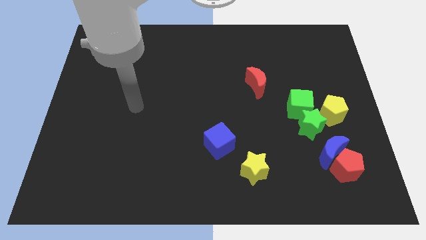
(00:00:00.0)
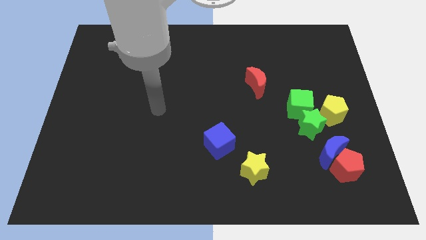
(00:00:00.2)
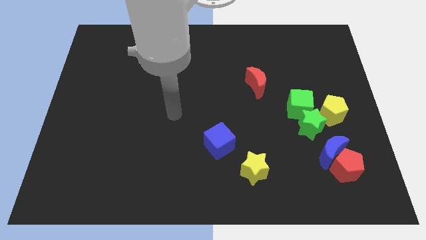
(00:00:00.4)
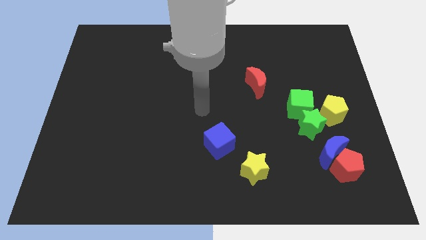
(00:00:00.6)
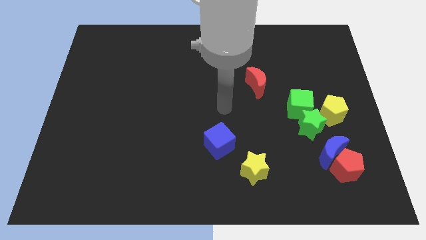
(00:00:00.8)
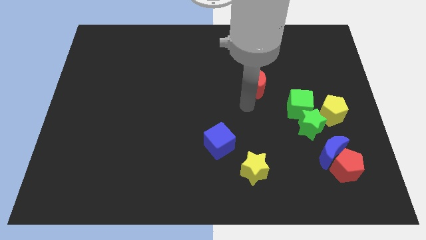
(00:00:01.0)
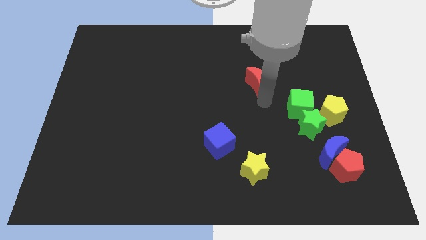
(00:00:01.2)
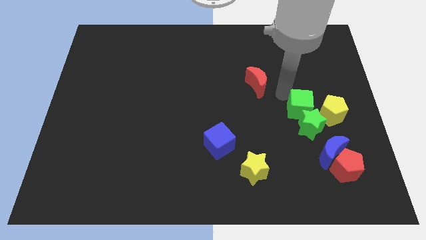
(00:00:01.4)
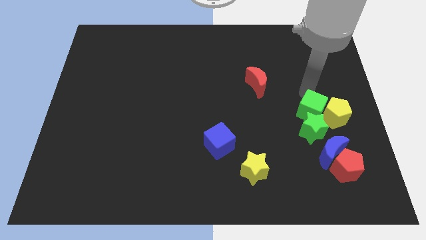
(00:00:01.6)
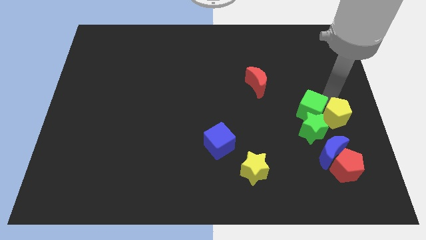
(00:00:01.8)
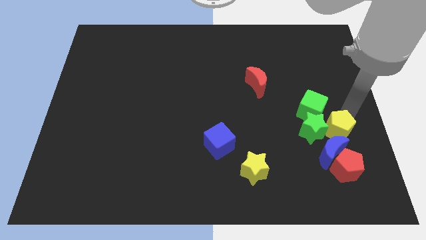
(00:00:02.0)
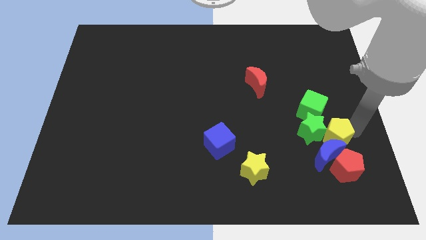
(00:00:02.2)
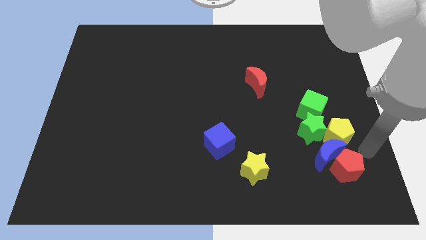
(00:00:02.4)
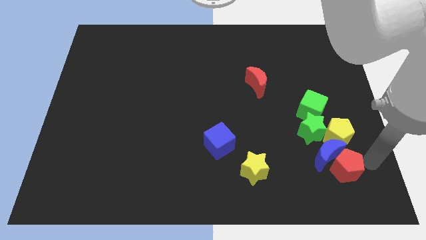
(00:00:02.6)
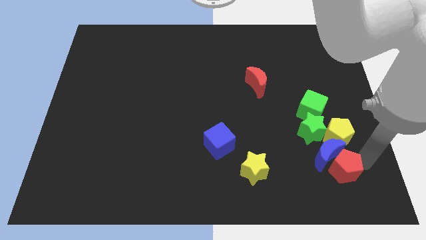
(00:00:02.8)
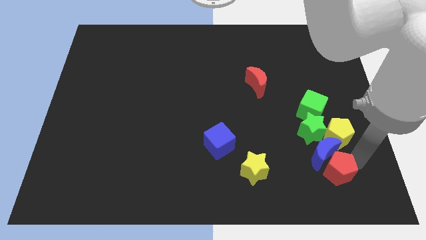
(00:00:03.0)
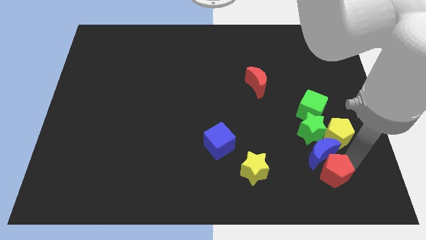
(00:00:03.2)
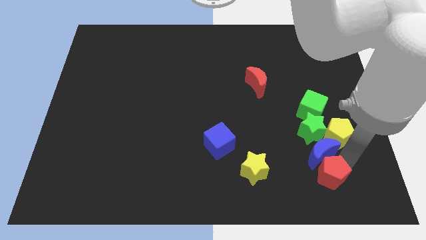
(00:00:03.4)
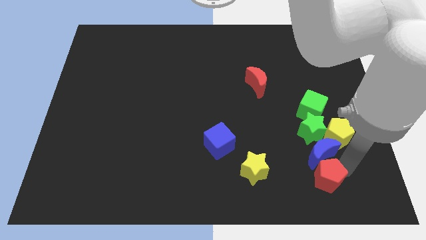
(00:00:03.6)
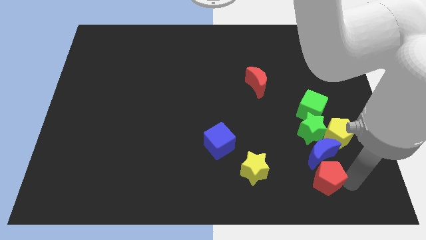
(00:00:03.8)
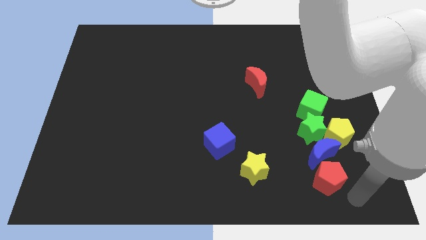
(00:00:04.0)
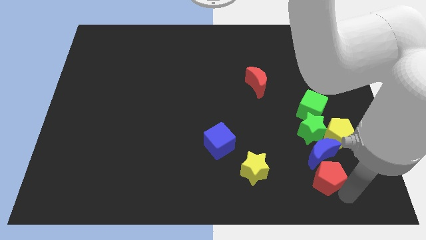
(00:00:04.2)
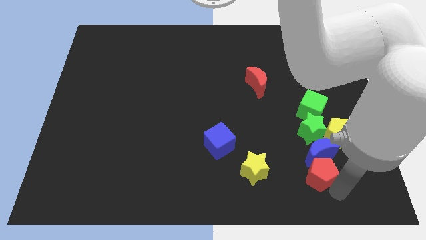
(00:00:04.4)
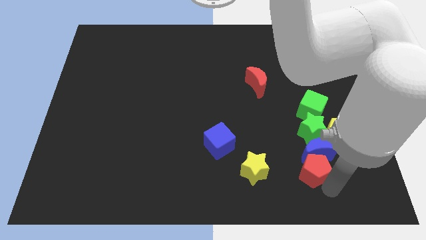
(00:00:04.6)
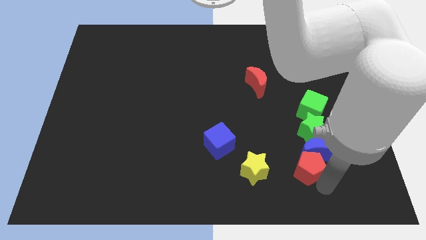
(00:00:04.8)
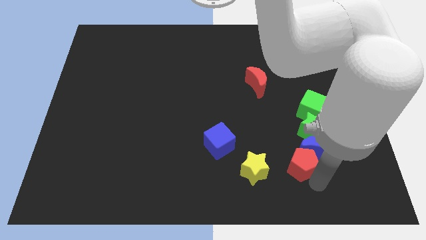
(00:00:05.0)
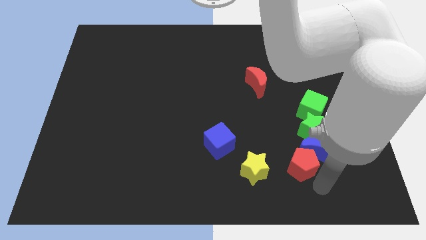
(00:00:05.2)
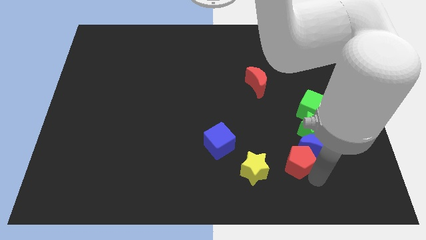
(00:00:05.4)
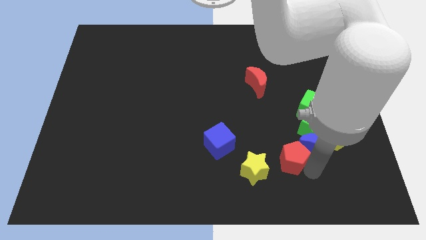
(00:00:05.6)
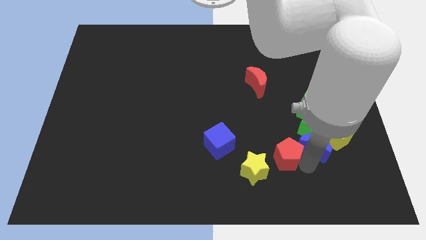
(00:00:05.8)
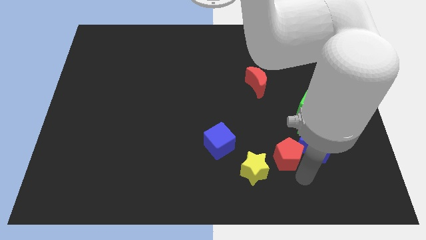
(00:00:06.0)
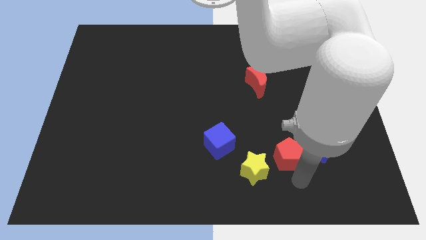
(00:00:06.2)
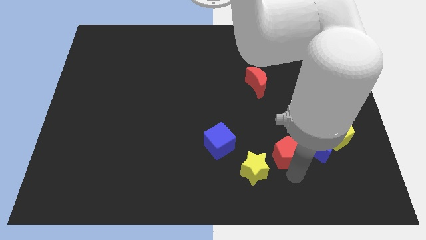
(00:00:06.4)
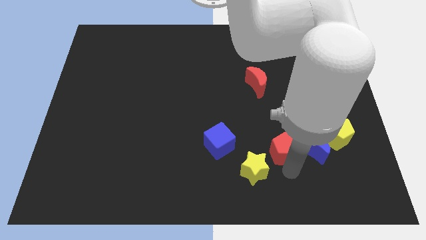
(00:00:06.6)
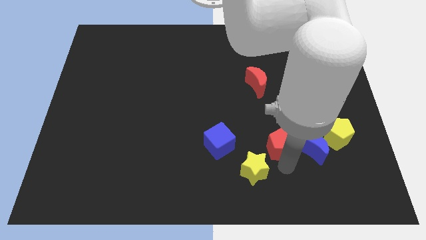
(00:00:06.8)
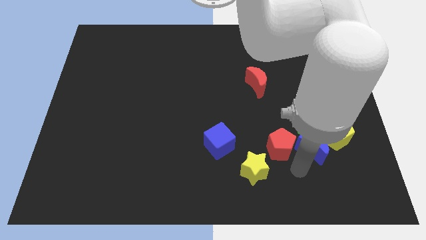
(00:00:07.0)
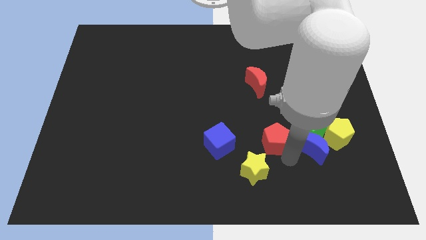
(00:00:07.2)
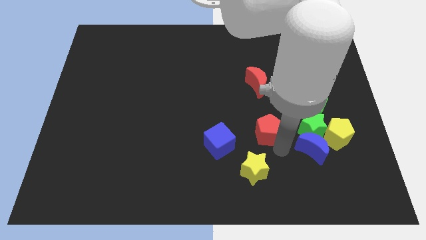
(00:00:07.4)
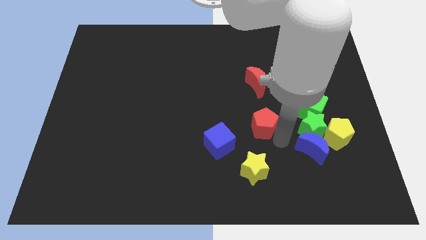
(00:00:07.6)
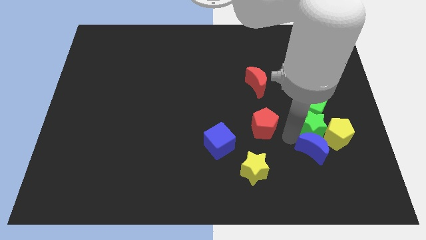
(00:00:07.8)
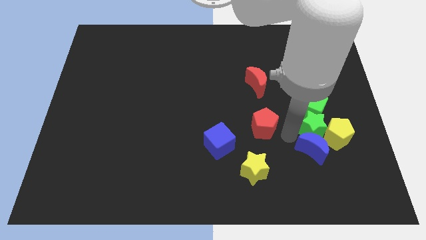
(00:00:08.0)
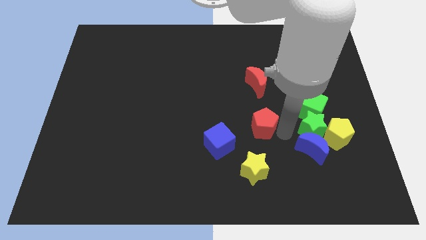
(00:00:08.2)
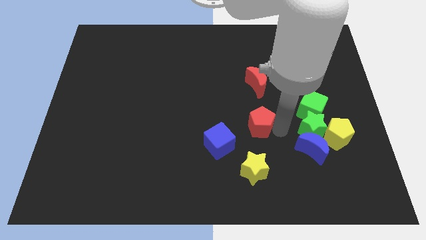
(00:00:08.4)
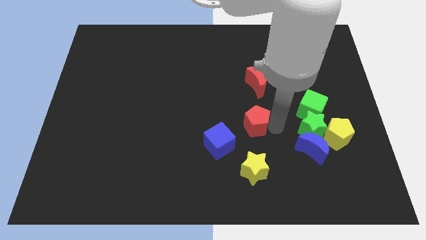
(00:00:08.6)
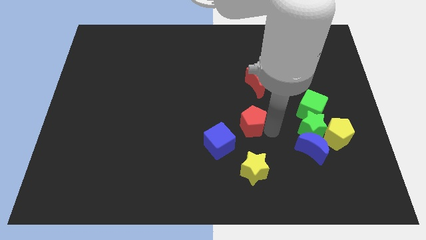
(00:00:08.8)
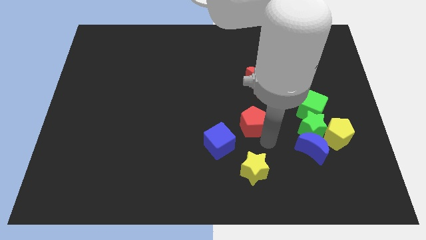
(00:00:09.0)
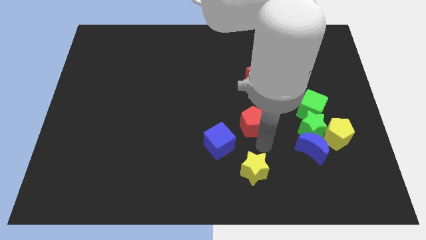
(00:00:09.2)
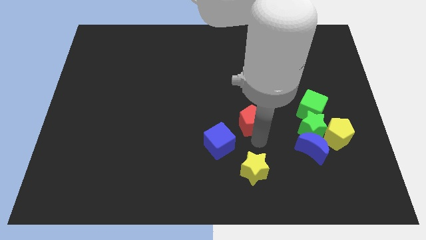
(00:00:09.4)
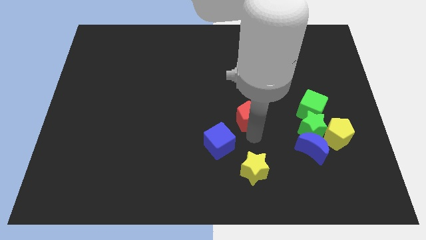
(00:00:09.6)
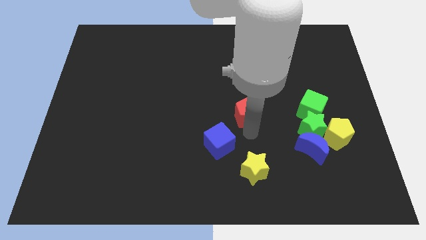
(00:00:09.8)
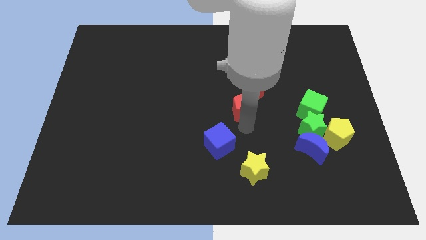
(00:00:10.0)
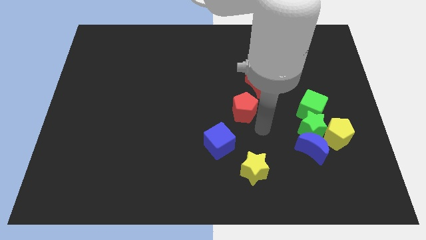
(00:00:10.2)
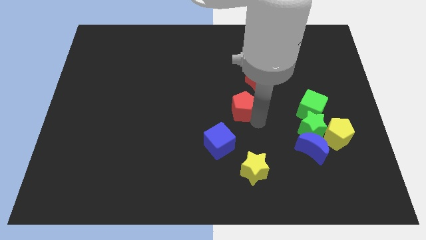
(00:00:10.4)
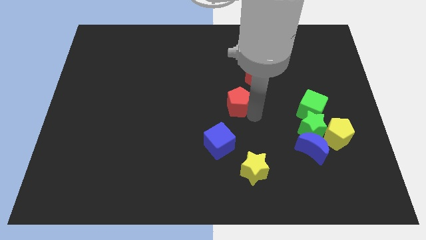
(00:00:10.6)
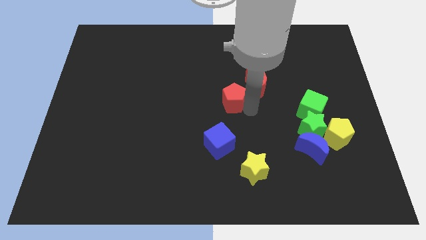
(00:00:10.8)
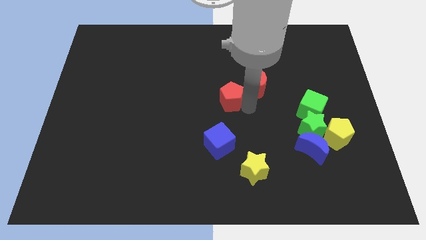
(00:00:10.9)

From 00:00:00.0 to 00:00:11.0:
put the red pentagon to the left side of the red moon

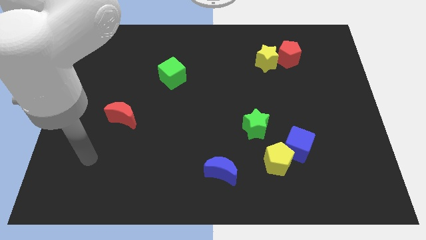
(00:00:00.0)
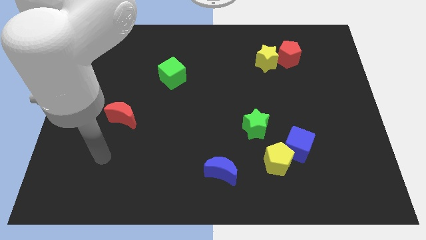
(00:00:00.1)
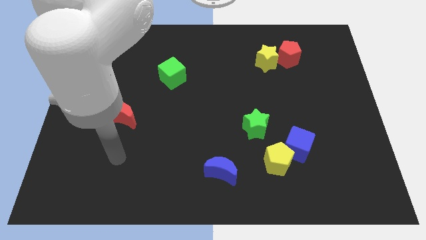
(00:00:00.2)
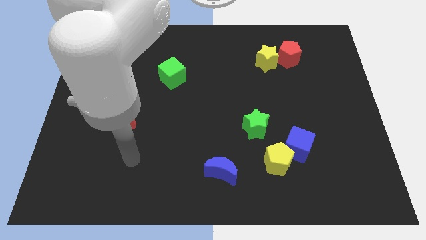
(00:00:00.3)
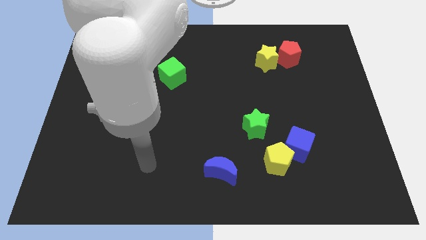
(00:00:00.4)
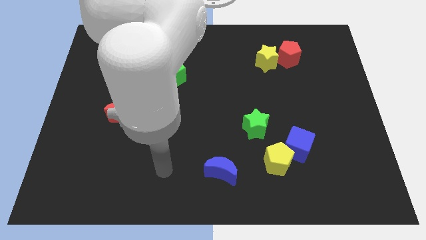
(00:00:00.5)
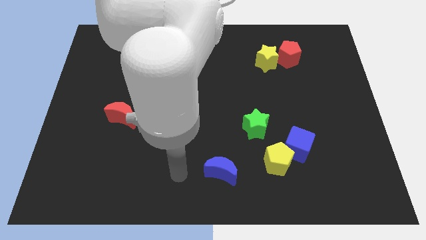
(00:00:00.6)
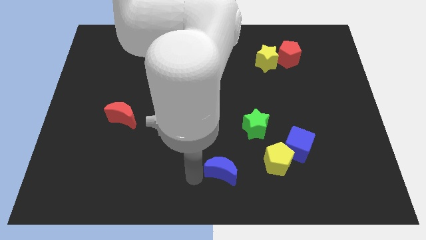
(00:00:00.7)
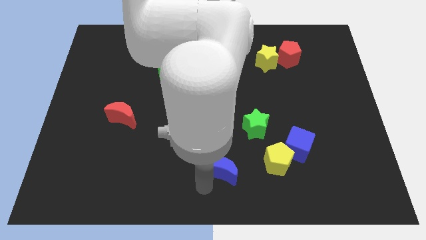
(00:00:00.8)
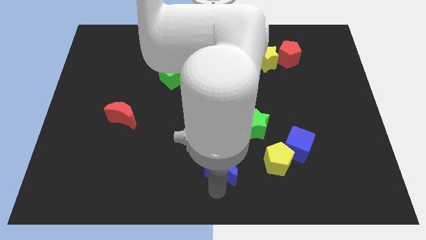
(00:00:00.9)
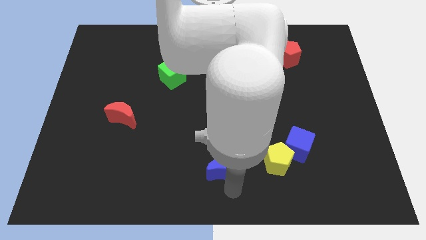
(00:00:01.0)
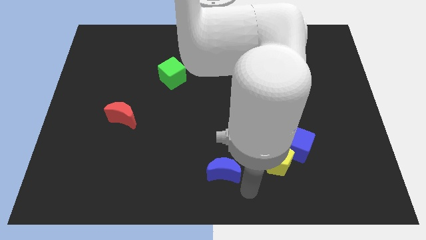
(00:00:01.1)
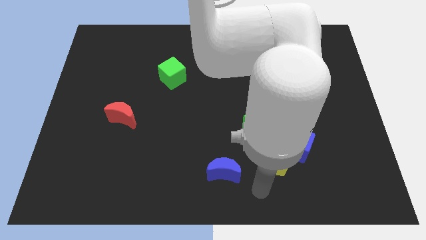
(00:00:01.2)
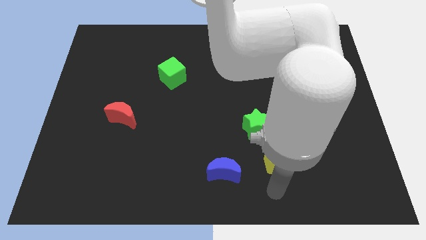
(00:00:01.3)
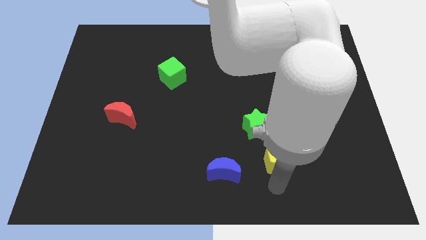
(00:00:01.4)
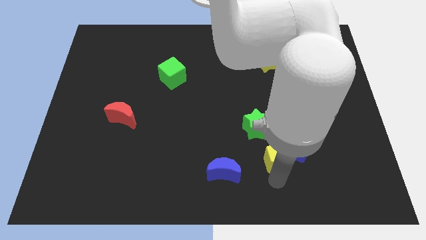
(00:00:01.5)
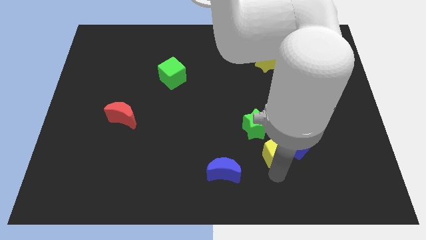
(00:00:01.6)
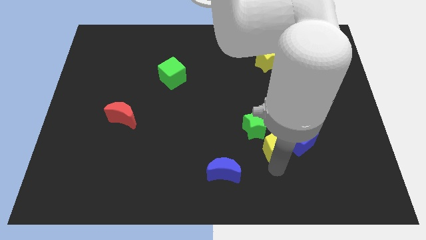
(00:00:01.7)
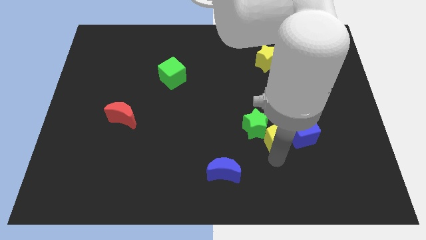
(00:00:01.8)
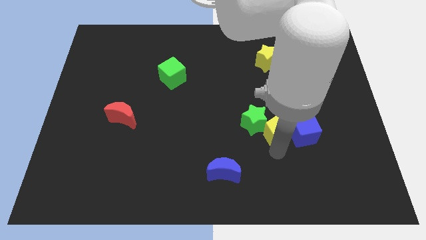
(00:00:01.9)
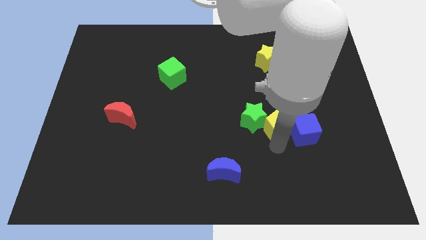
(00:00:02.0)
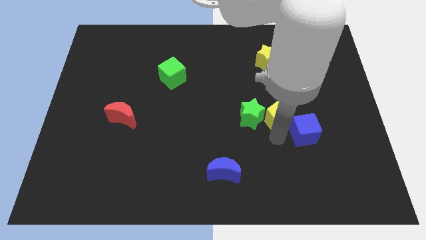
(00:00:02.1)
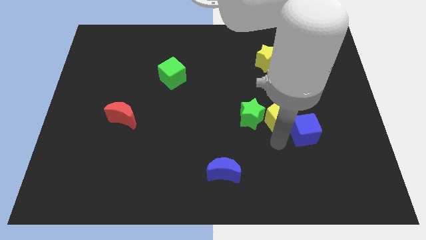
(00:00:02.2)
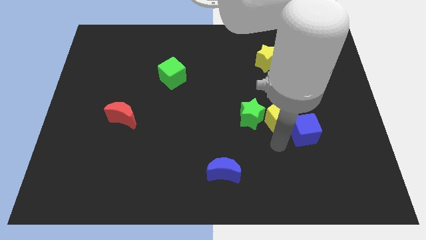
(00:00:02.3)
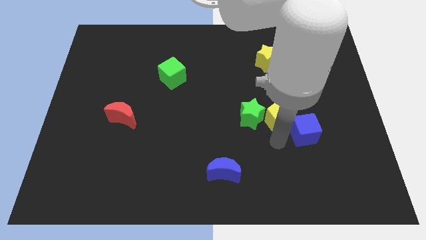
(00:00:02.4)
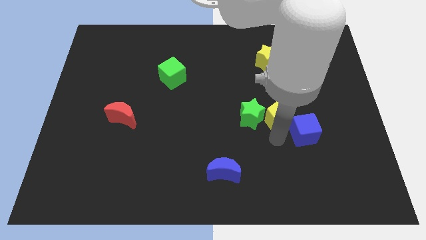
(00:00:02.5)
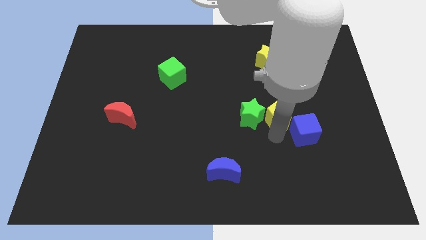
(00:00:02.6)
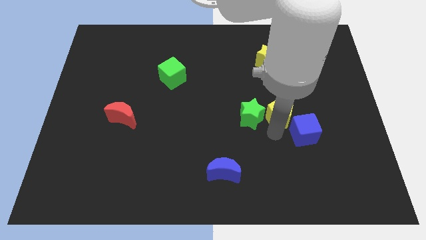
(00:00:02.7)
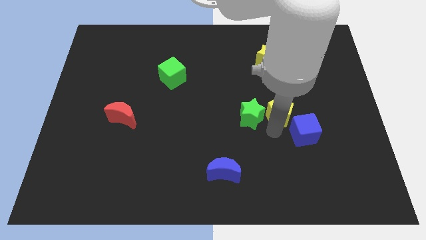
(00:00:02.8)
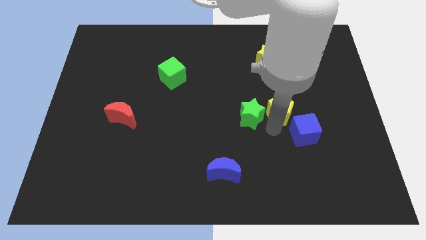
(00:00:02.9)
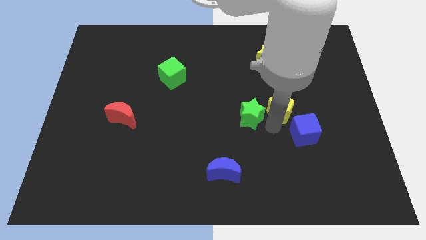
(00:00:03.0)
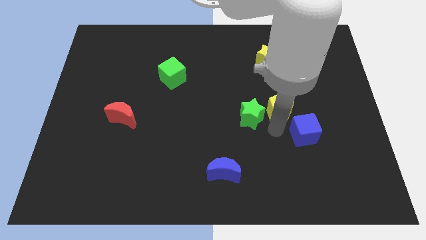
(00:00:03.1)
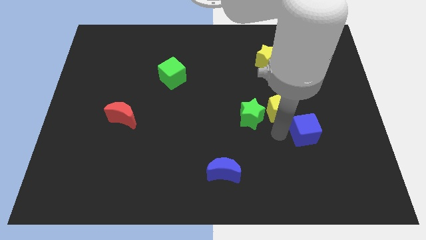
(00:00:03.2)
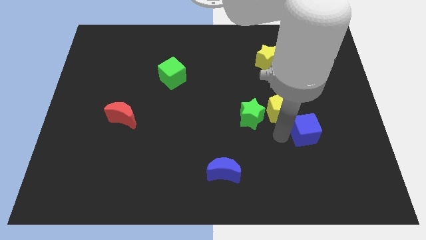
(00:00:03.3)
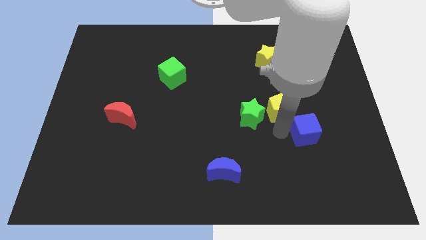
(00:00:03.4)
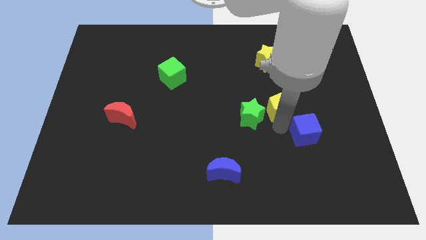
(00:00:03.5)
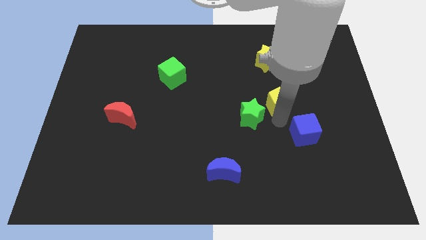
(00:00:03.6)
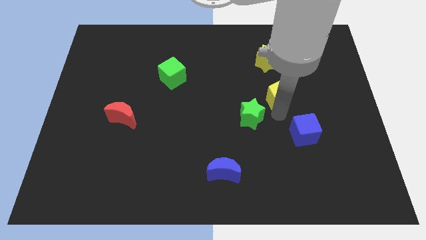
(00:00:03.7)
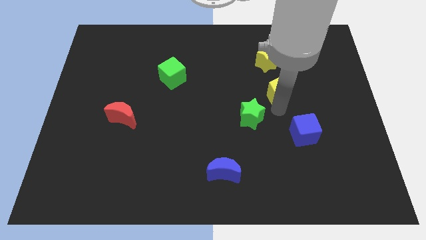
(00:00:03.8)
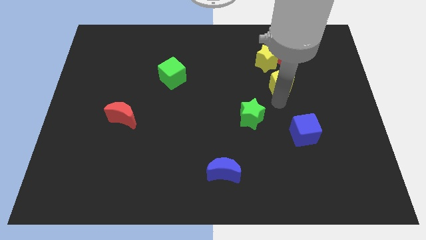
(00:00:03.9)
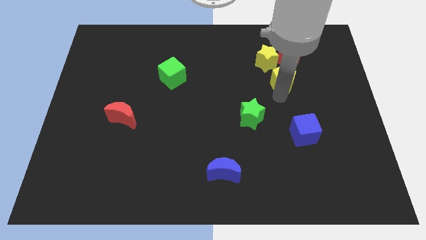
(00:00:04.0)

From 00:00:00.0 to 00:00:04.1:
slide the yellow pentagon diagonally down and to the left of the red pentagon
